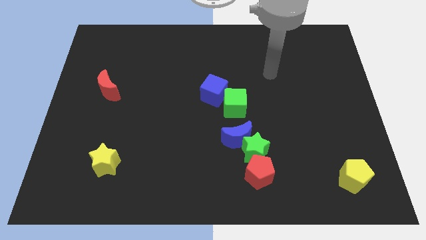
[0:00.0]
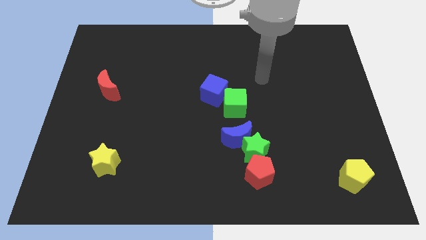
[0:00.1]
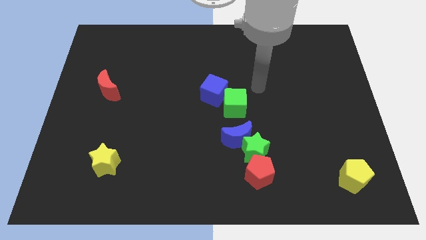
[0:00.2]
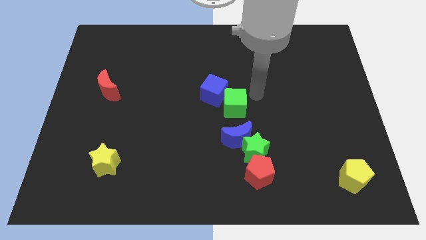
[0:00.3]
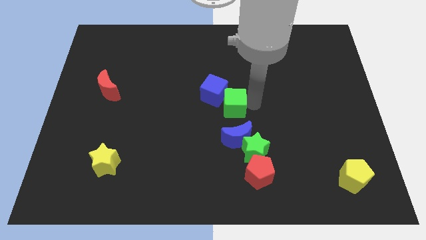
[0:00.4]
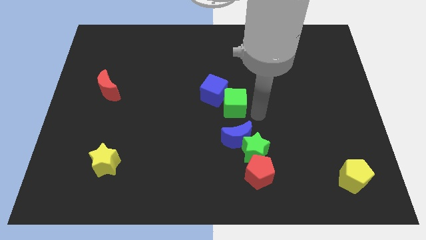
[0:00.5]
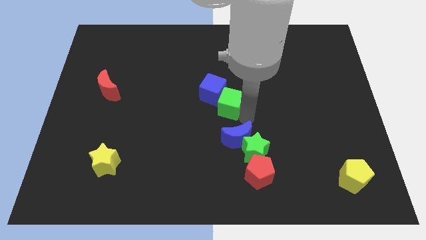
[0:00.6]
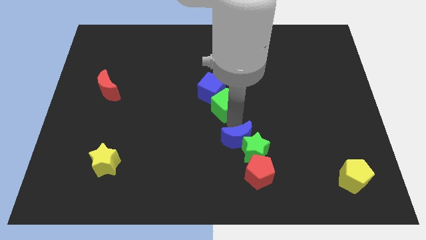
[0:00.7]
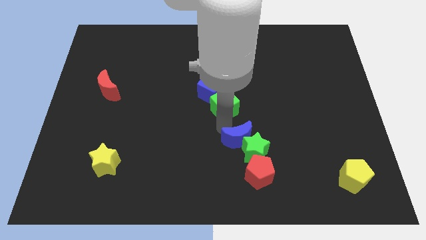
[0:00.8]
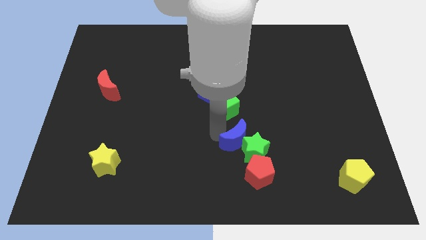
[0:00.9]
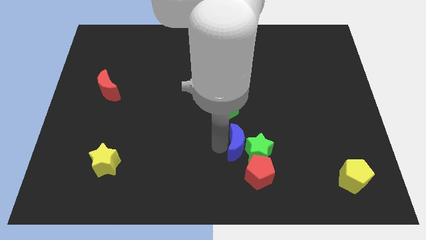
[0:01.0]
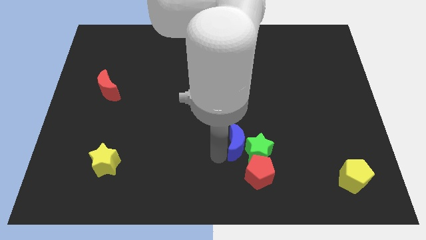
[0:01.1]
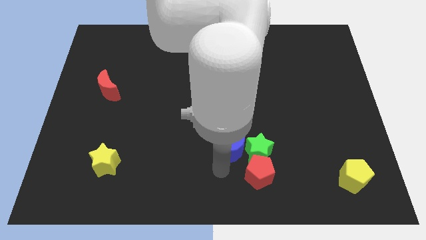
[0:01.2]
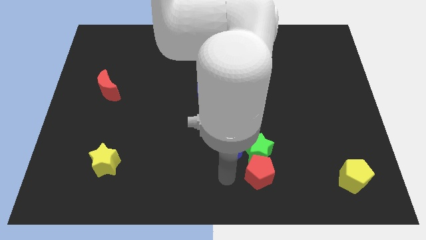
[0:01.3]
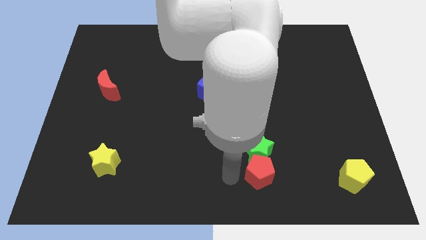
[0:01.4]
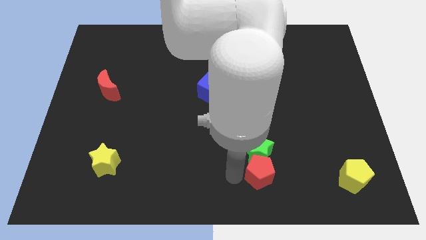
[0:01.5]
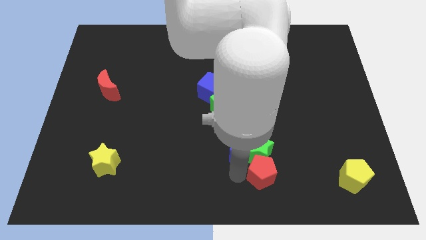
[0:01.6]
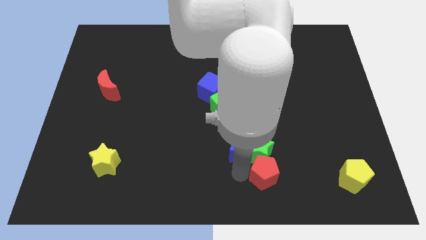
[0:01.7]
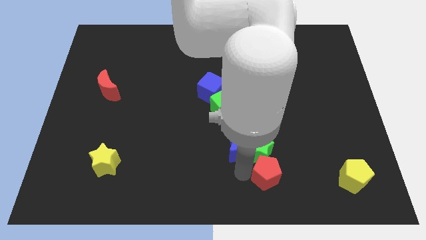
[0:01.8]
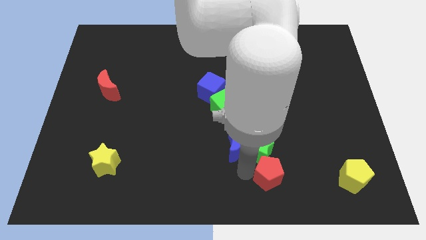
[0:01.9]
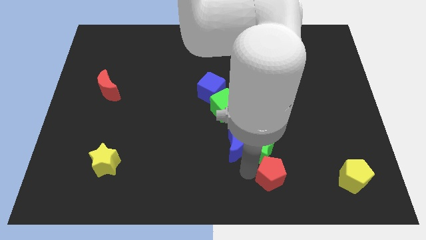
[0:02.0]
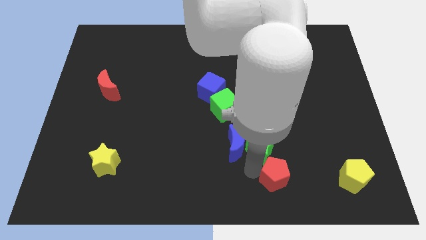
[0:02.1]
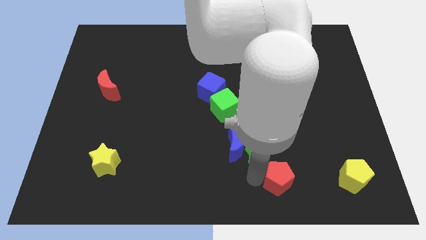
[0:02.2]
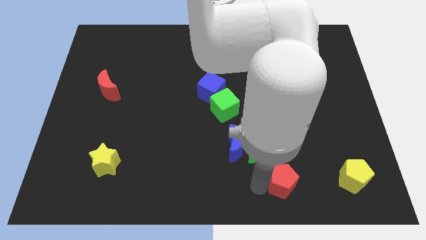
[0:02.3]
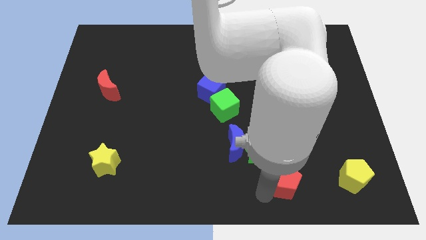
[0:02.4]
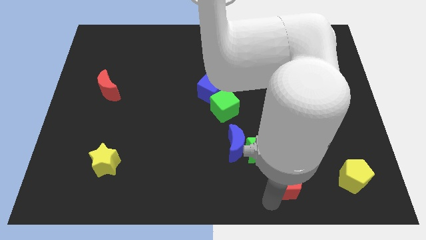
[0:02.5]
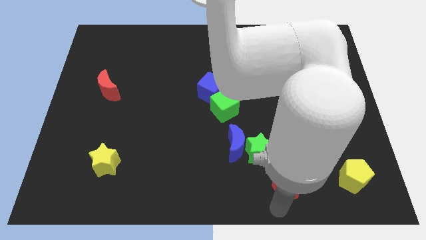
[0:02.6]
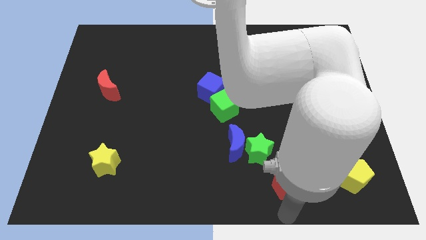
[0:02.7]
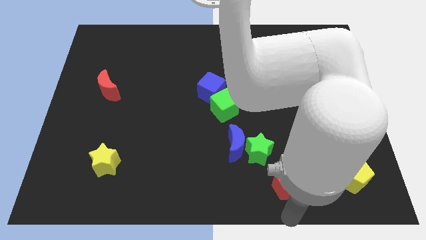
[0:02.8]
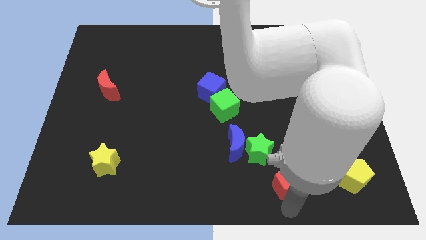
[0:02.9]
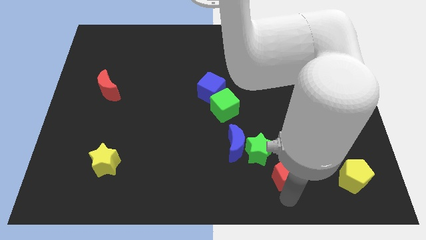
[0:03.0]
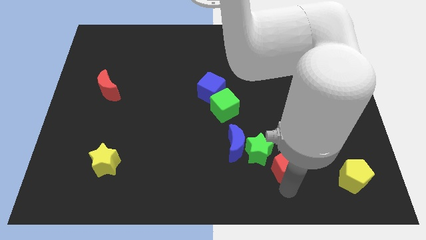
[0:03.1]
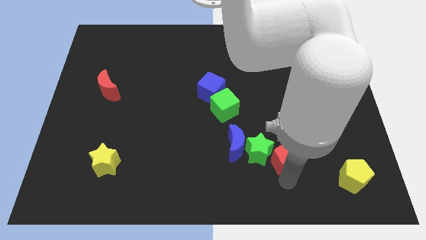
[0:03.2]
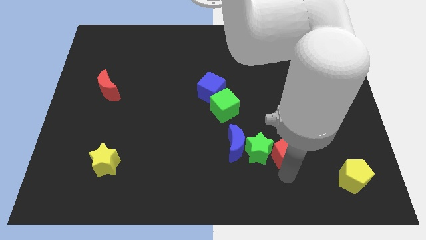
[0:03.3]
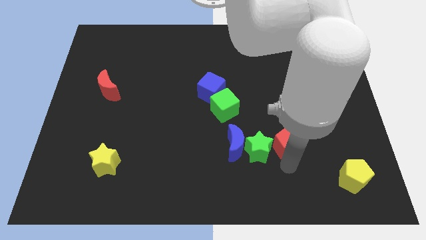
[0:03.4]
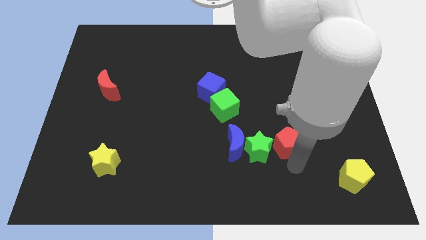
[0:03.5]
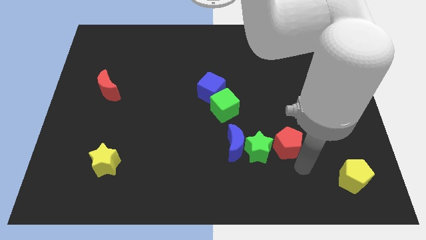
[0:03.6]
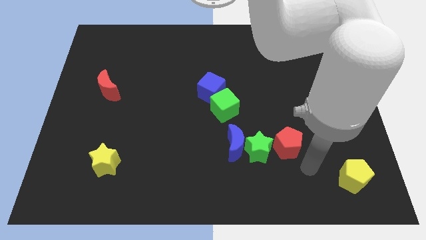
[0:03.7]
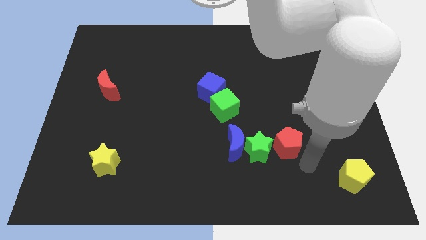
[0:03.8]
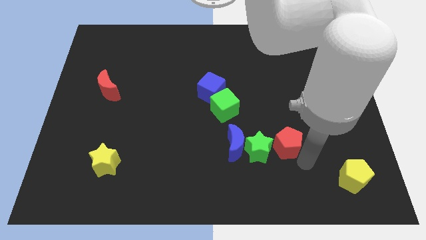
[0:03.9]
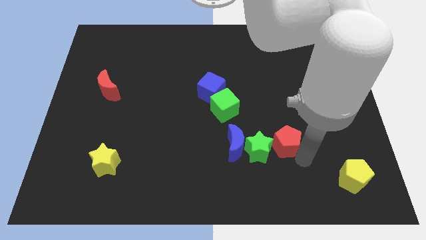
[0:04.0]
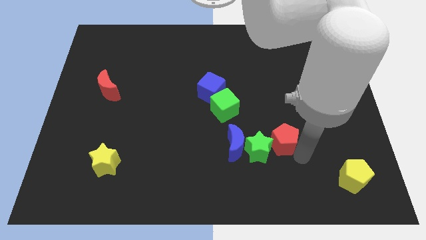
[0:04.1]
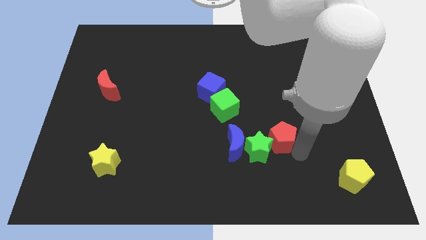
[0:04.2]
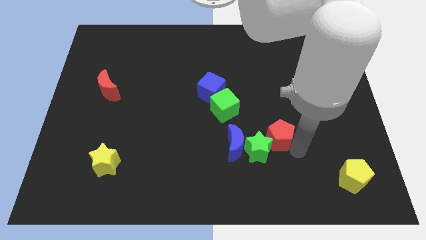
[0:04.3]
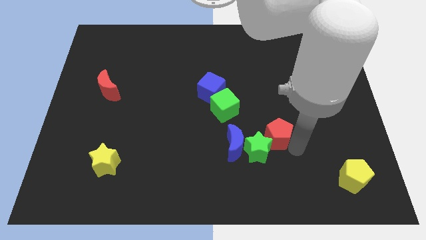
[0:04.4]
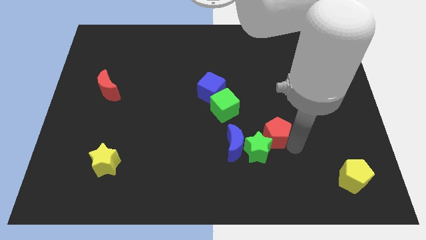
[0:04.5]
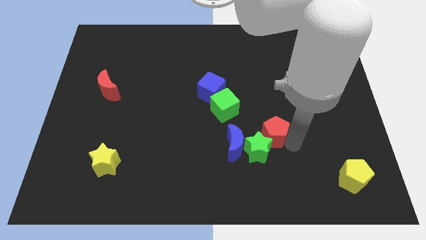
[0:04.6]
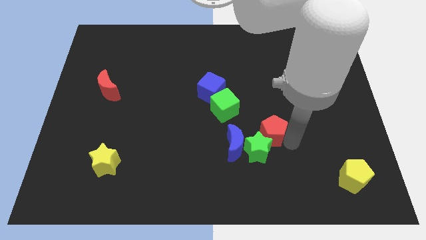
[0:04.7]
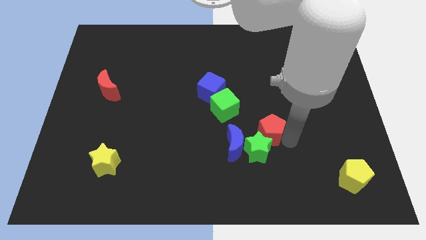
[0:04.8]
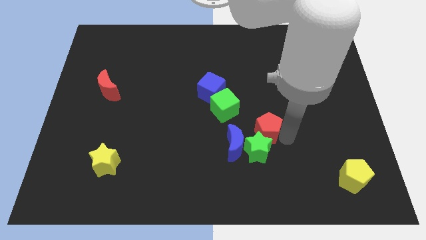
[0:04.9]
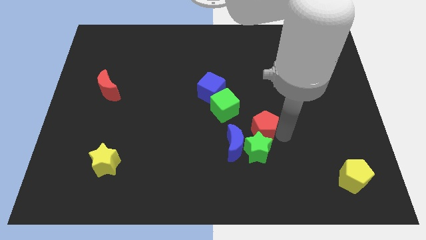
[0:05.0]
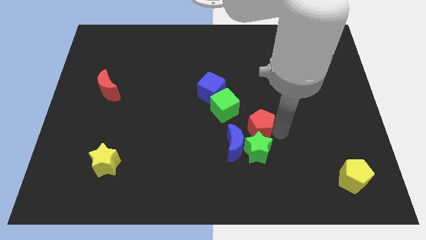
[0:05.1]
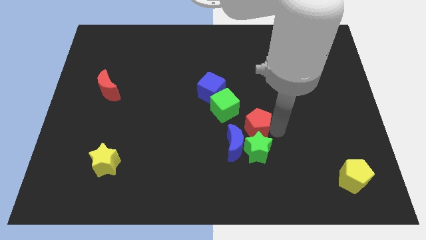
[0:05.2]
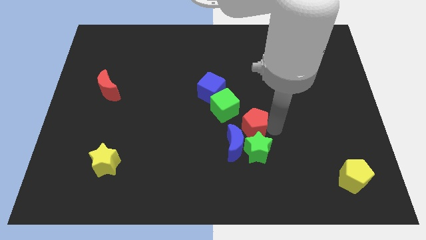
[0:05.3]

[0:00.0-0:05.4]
push the red pentagon to the top of the blue moon

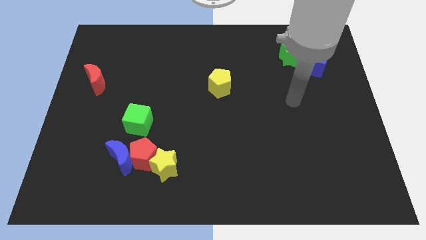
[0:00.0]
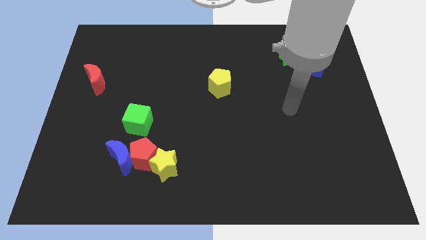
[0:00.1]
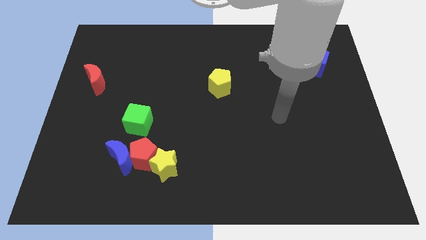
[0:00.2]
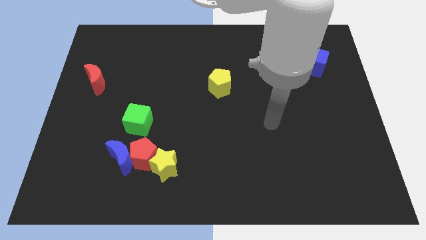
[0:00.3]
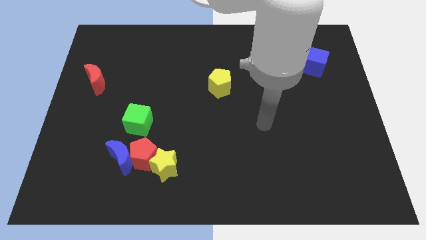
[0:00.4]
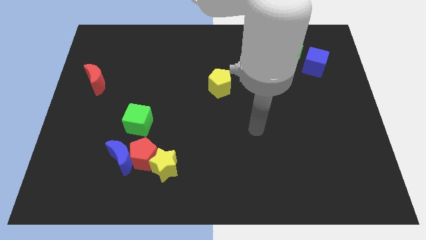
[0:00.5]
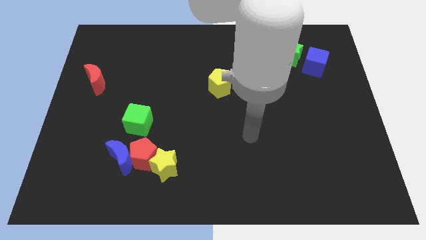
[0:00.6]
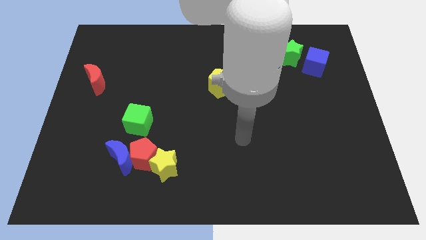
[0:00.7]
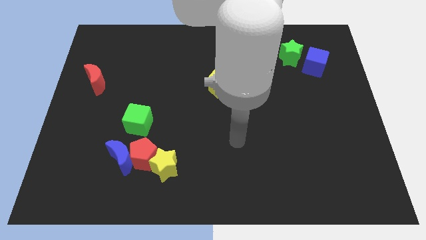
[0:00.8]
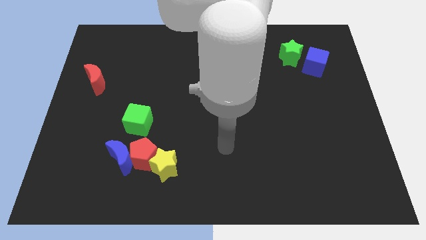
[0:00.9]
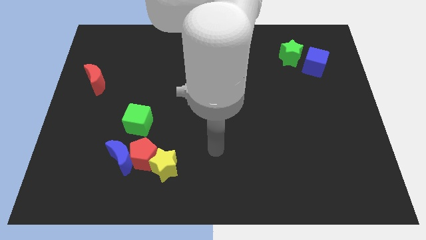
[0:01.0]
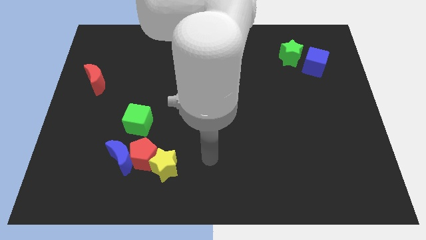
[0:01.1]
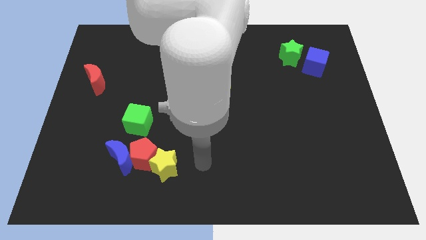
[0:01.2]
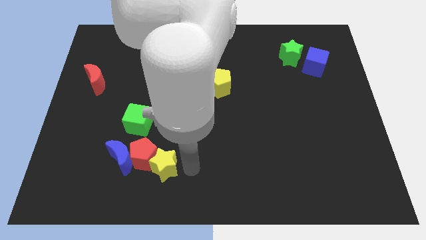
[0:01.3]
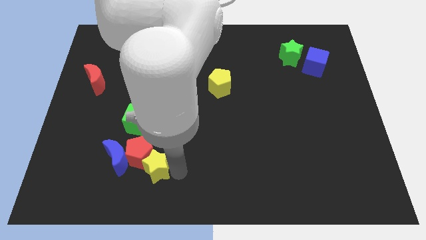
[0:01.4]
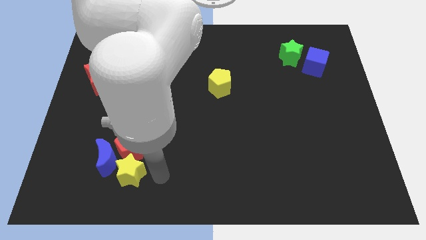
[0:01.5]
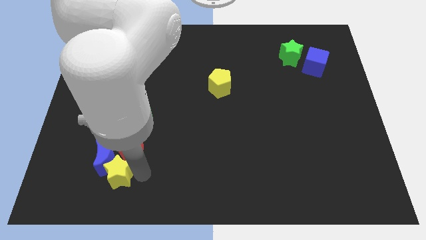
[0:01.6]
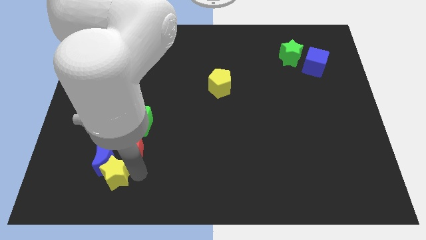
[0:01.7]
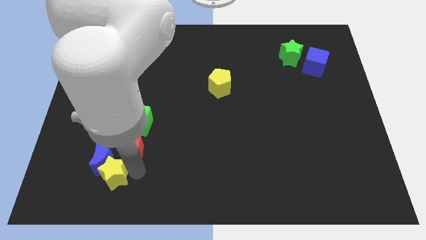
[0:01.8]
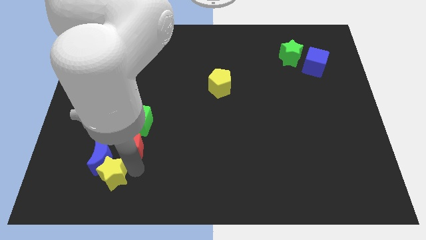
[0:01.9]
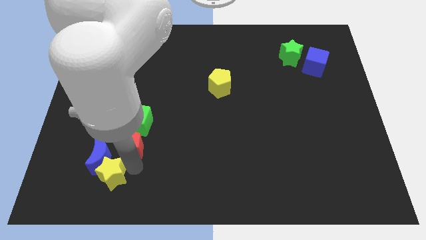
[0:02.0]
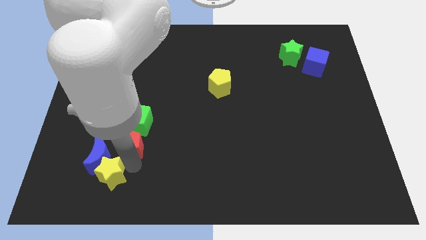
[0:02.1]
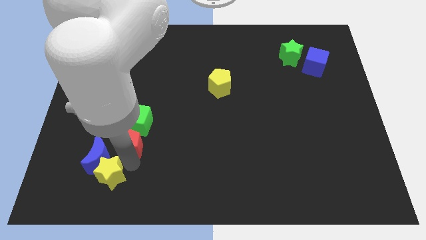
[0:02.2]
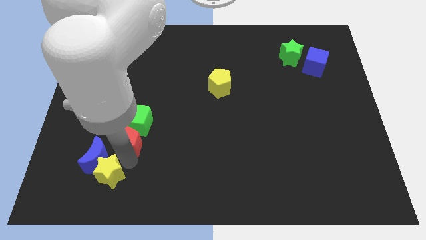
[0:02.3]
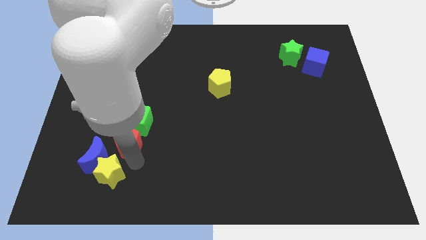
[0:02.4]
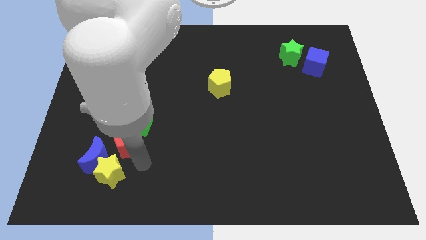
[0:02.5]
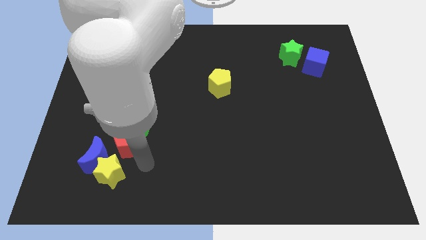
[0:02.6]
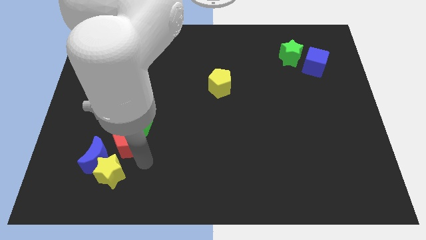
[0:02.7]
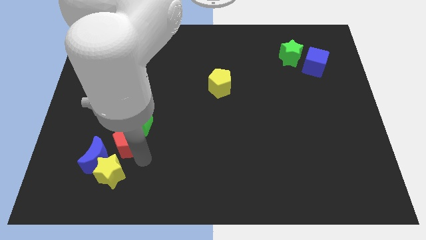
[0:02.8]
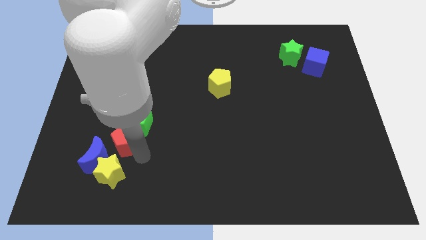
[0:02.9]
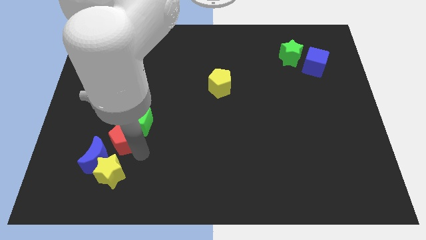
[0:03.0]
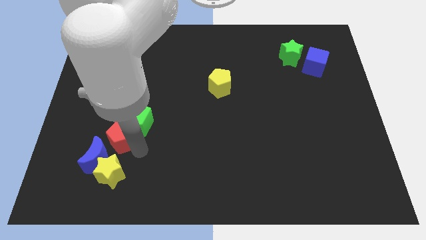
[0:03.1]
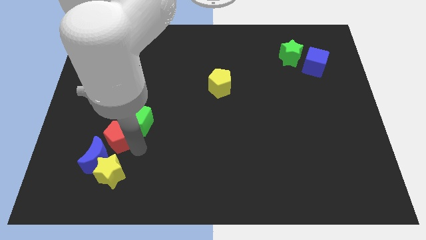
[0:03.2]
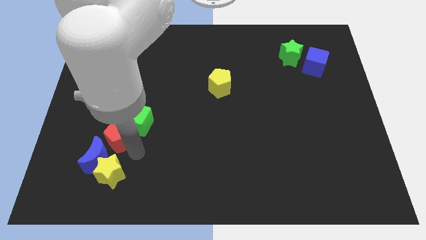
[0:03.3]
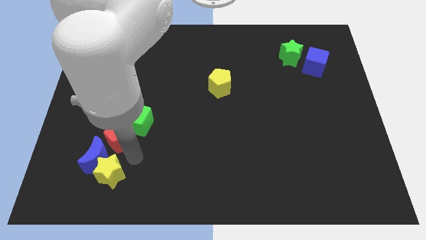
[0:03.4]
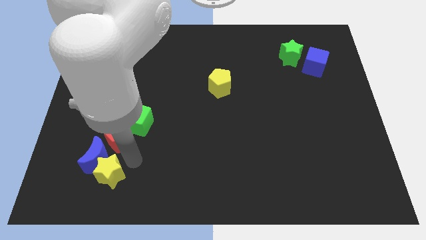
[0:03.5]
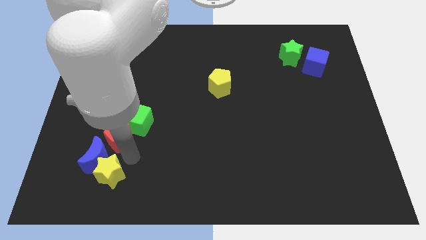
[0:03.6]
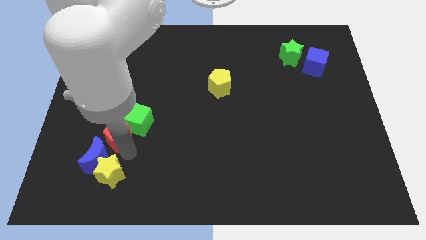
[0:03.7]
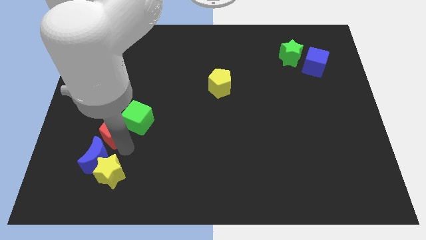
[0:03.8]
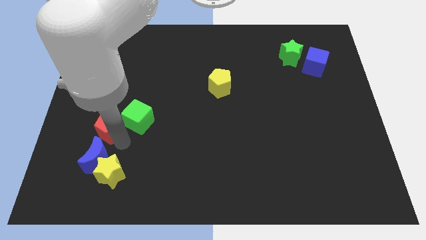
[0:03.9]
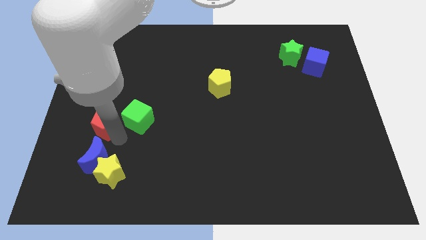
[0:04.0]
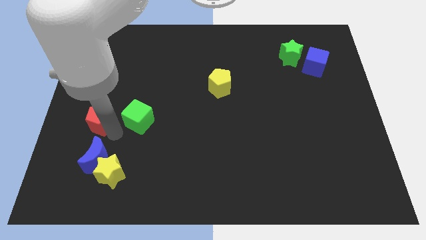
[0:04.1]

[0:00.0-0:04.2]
slide the red pentagon below the red moon
